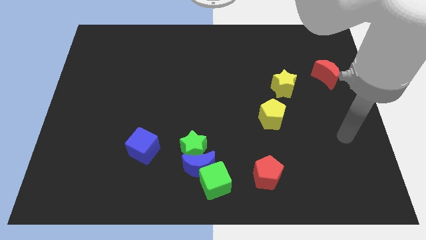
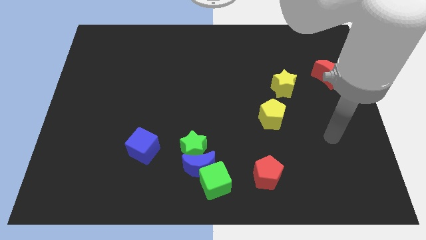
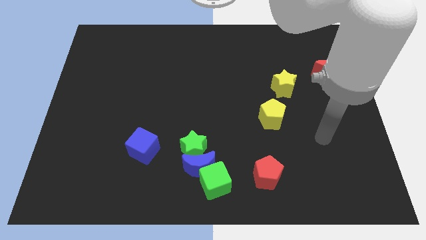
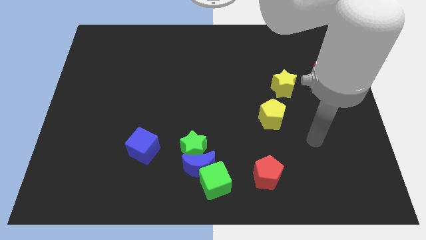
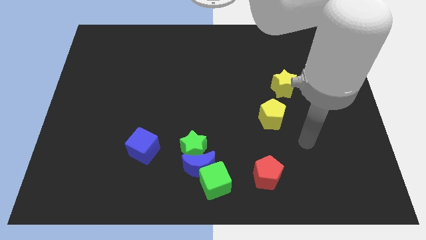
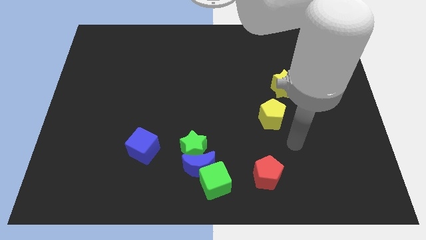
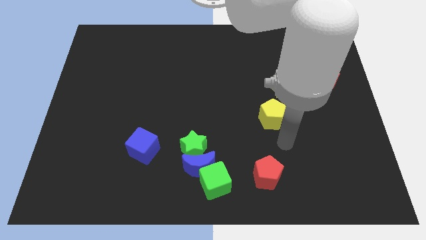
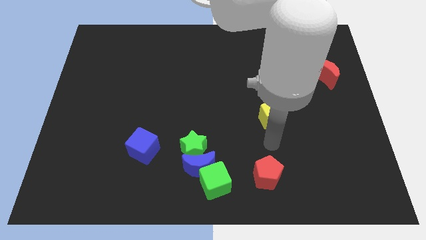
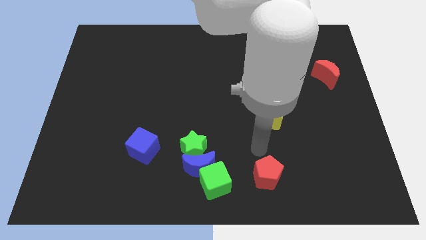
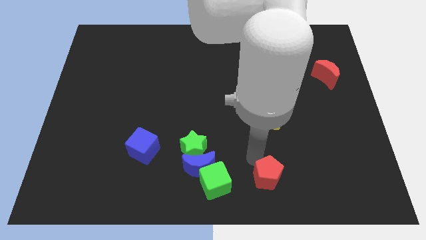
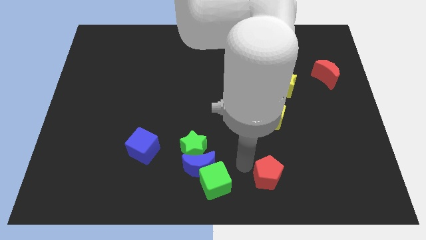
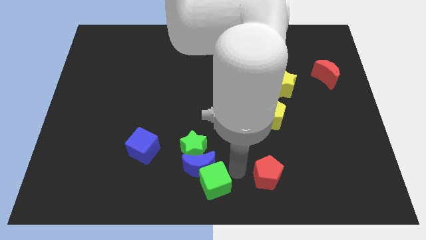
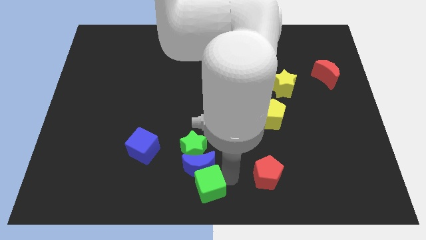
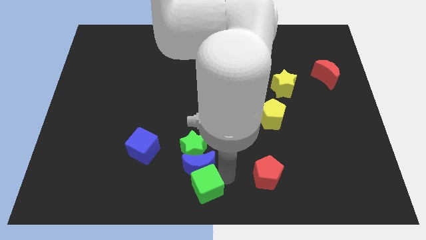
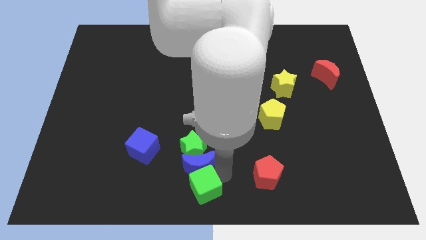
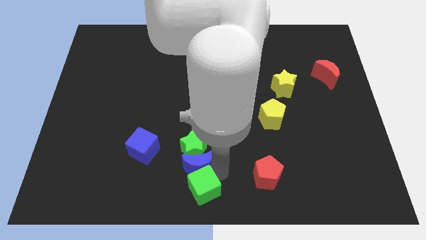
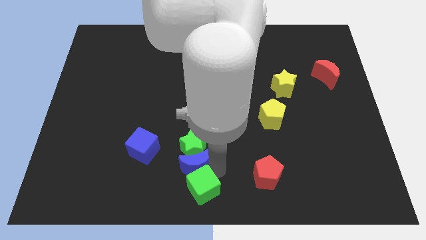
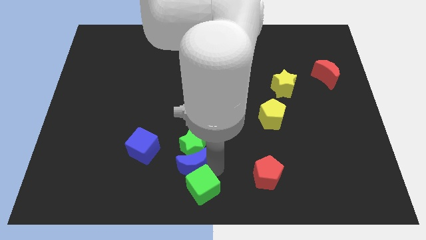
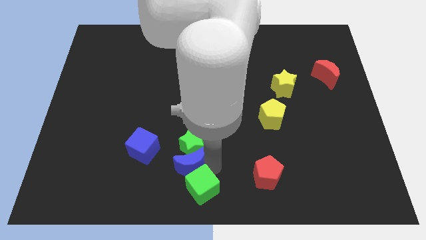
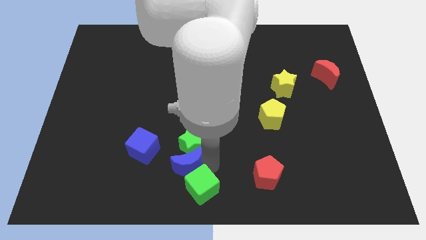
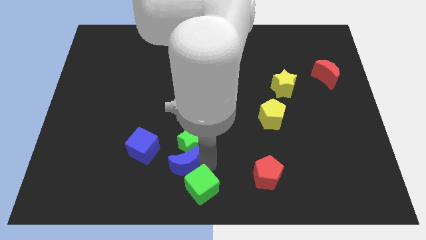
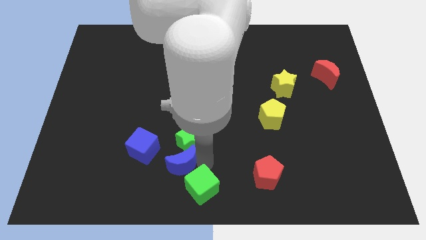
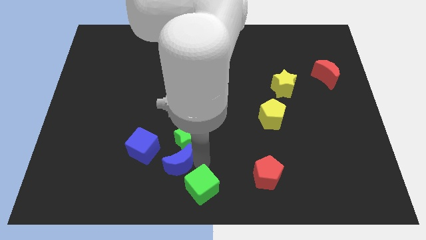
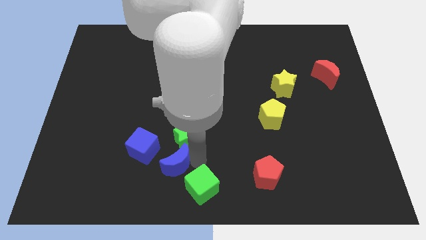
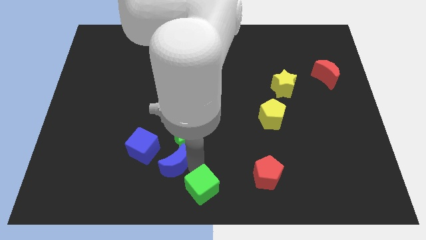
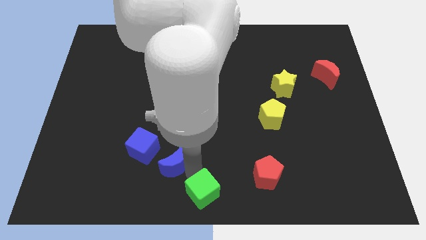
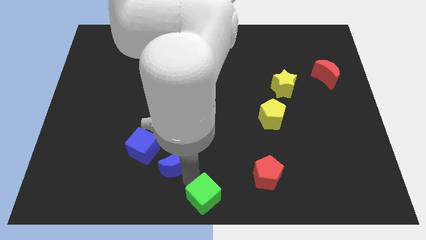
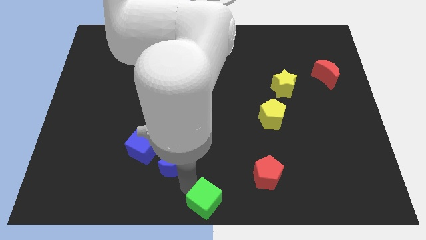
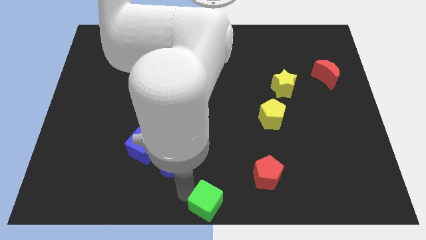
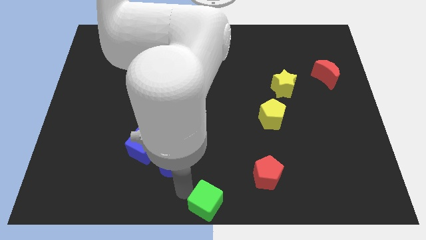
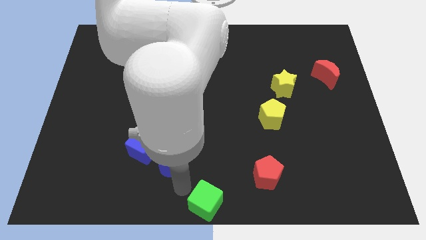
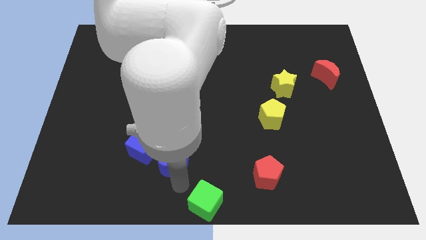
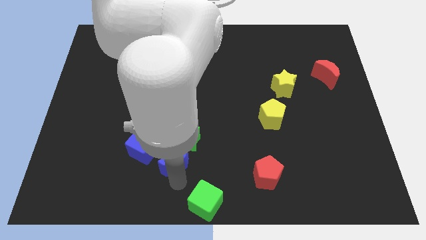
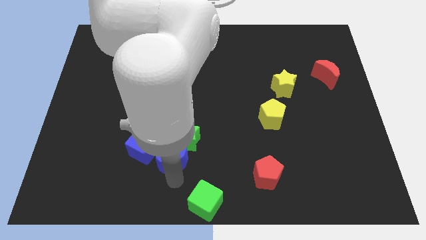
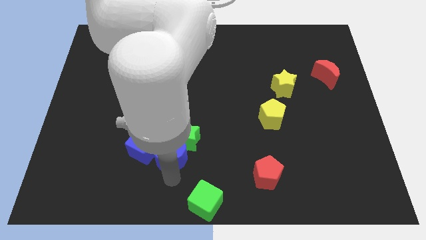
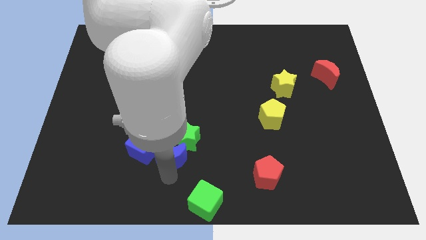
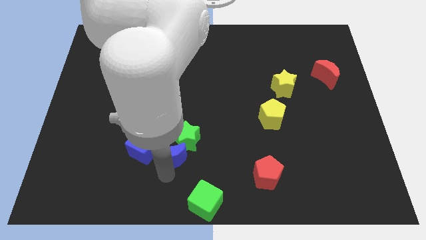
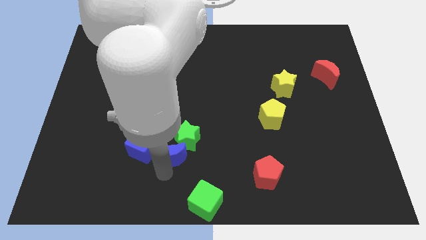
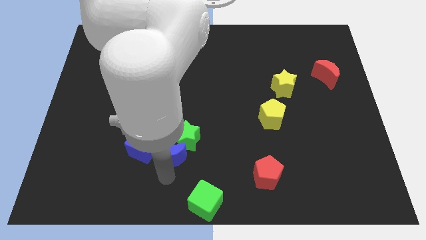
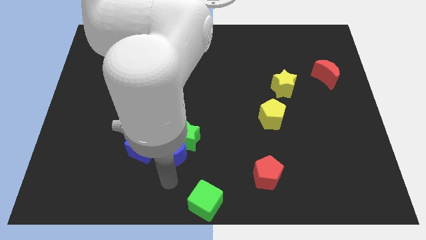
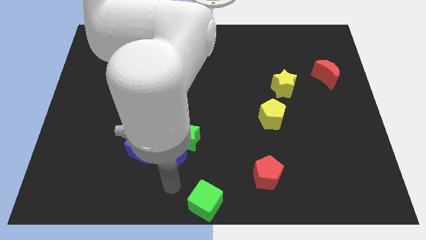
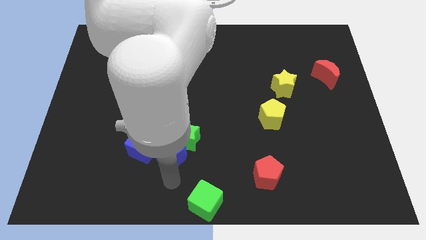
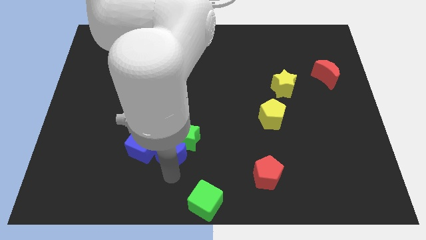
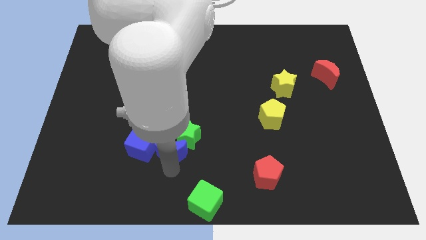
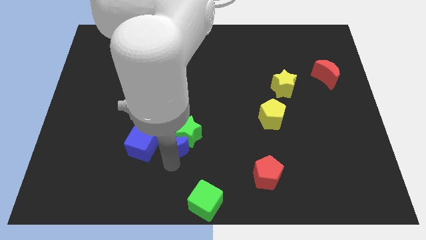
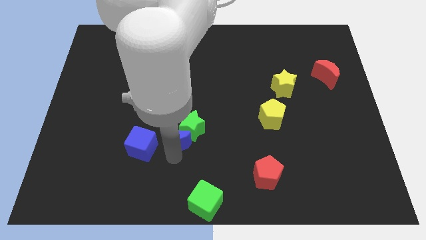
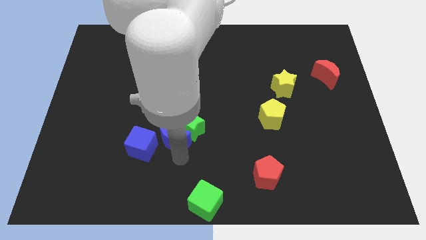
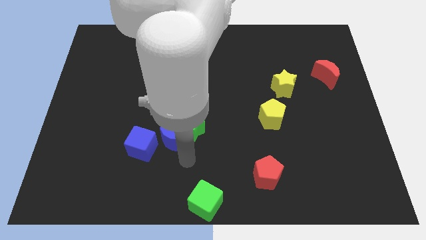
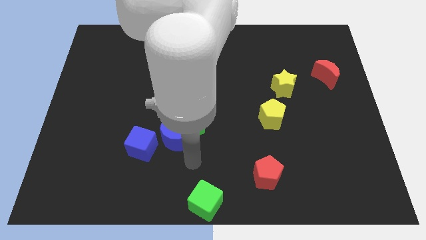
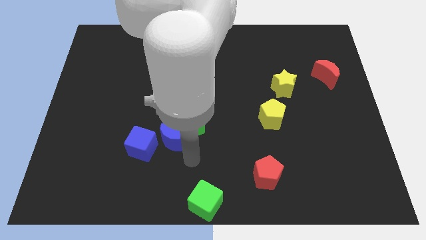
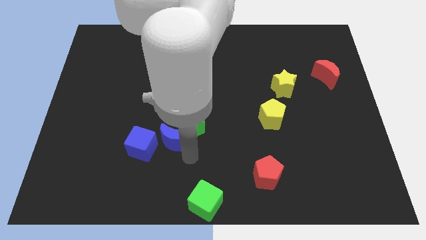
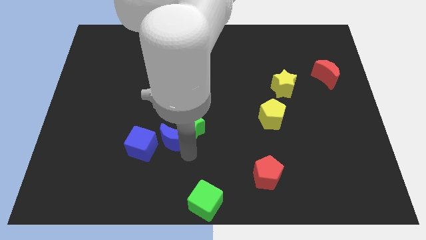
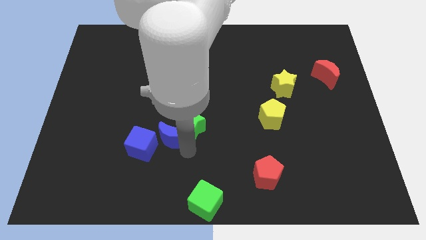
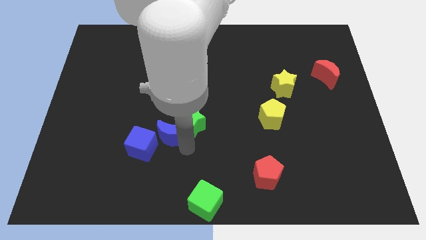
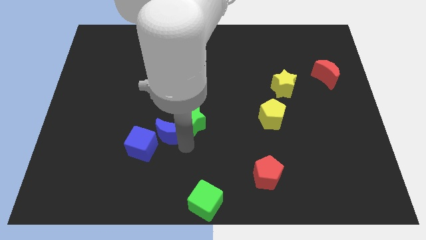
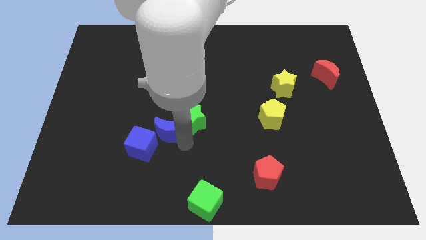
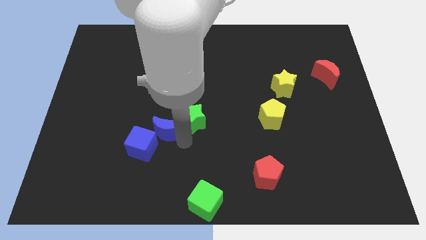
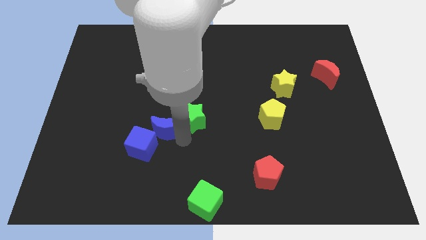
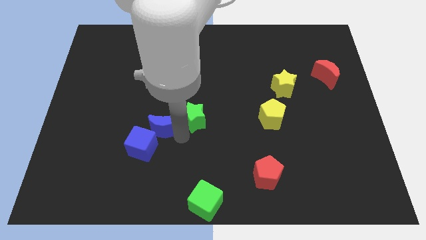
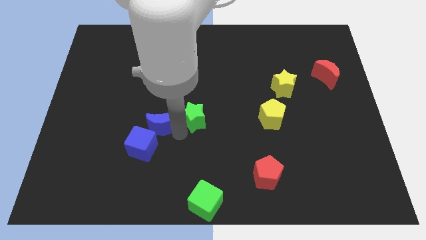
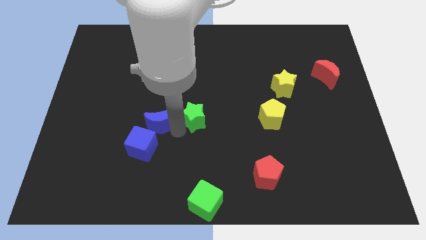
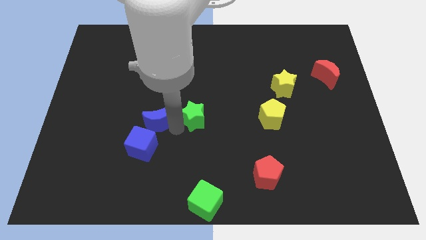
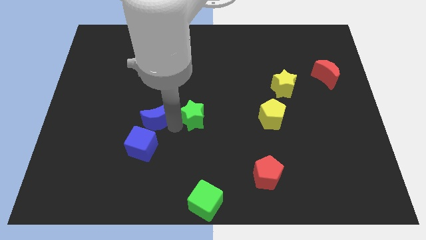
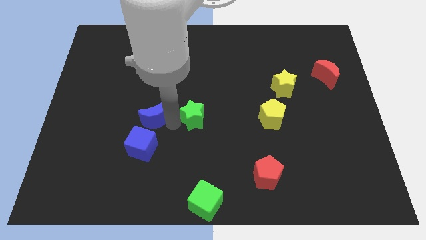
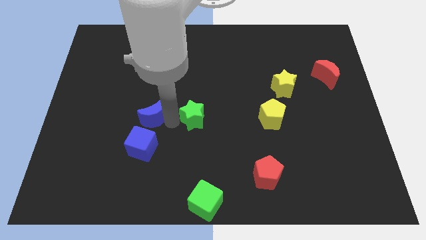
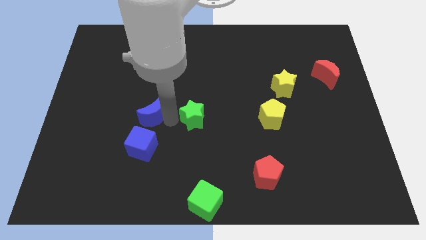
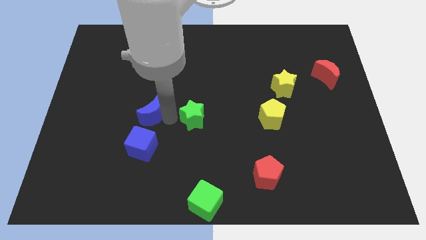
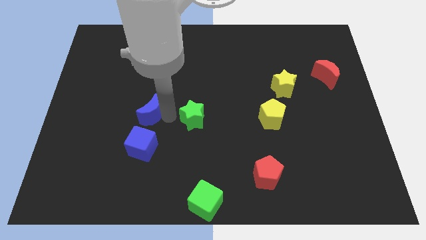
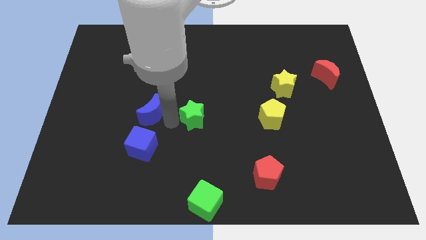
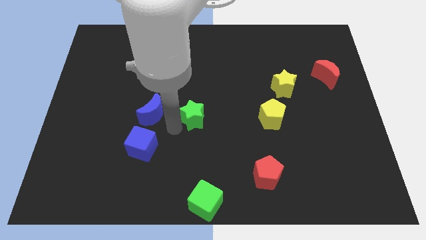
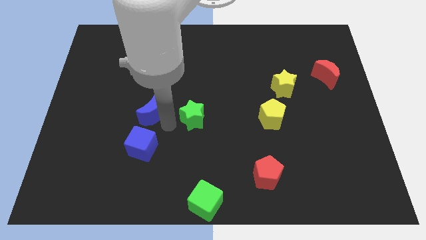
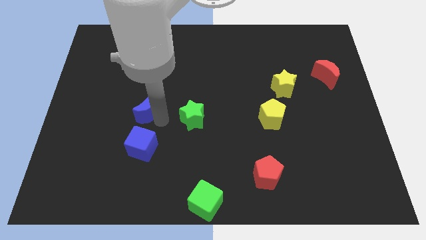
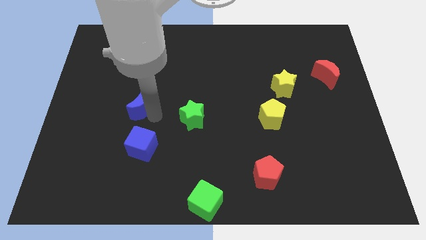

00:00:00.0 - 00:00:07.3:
push the blue moon up and then left

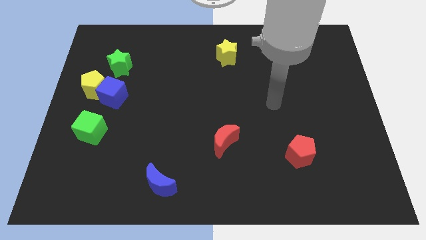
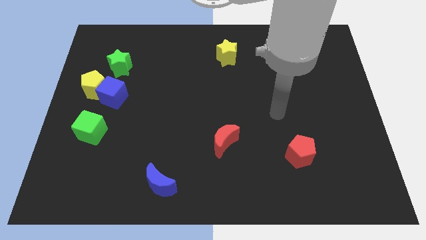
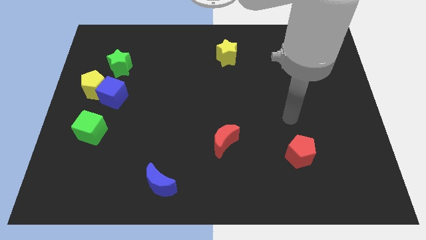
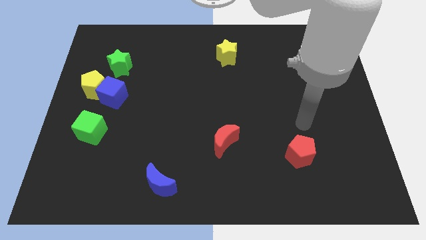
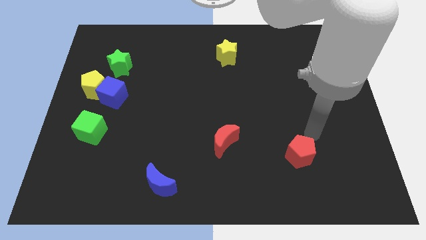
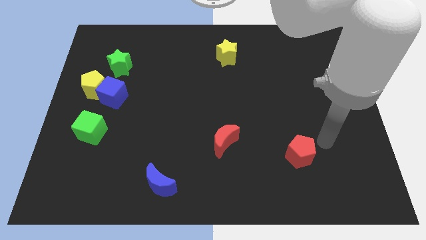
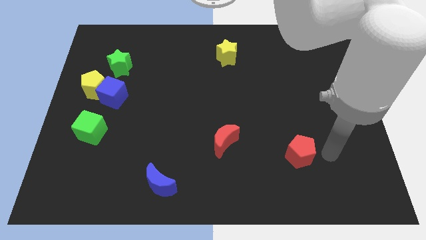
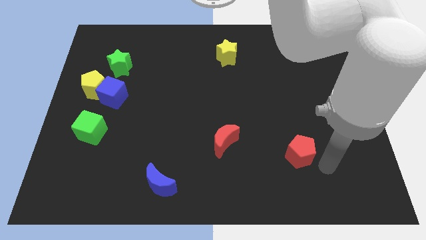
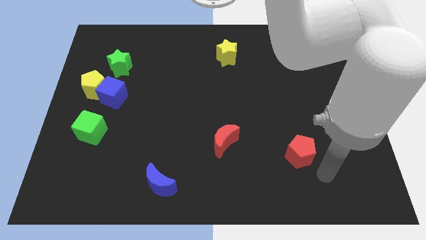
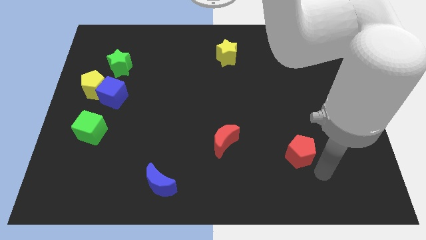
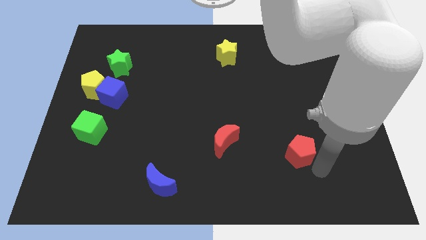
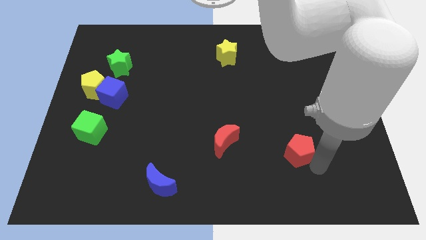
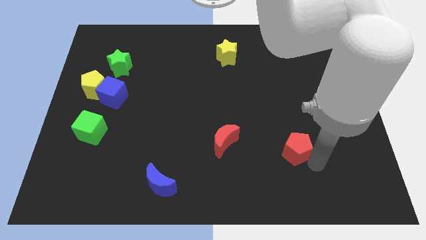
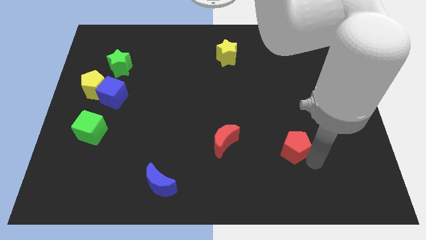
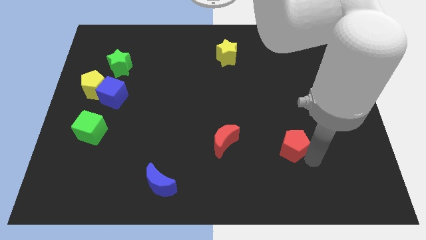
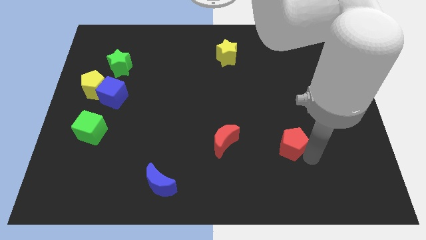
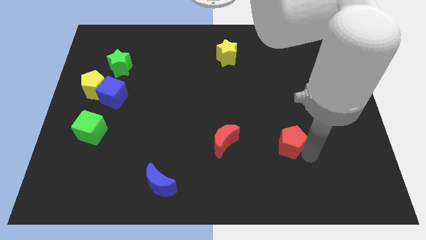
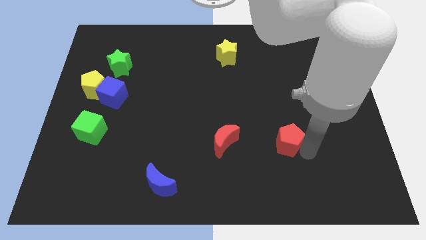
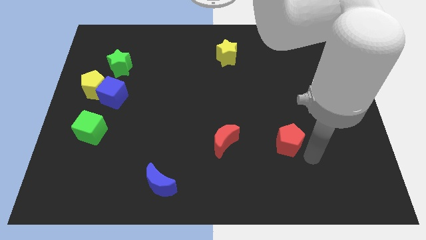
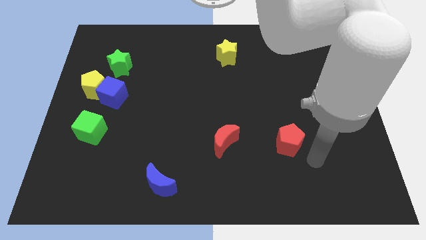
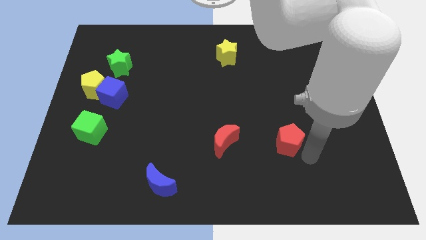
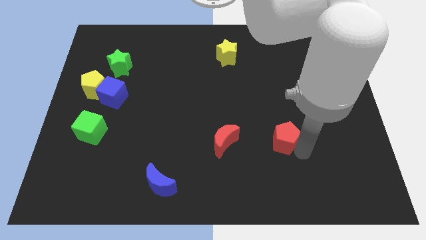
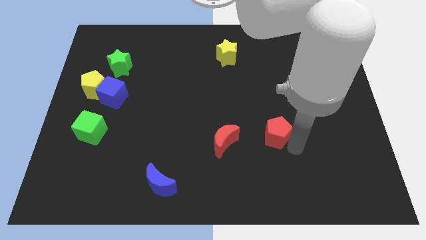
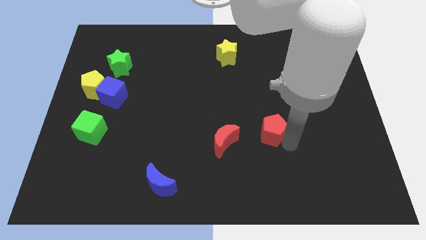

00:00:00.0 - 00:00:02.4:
slightly push the red pentagon up and left diagonally
